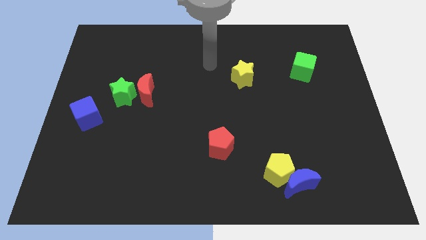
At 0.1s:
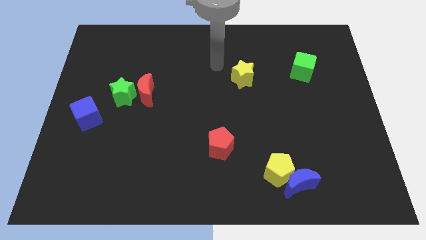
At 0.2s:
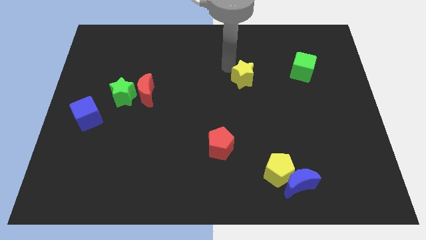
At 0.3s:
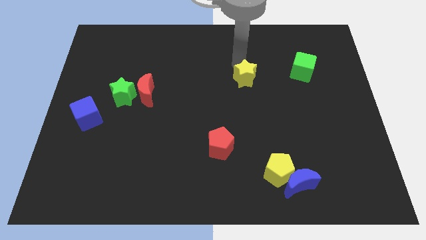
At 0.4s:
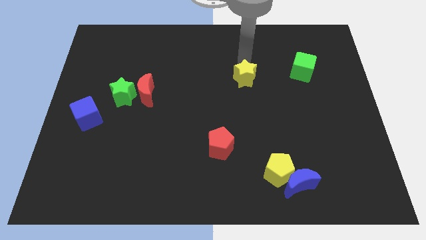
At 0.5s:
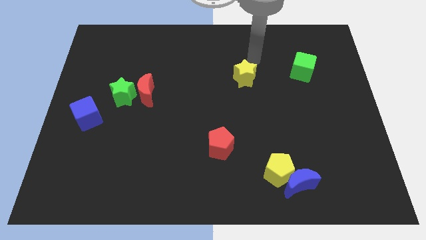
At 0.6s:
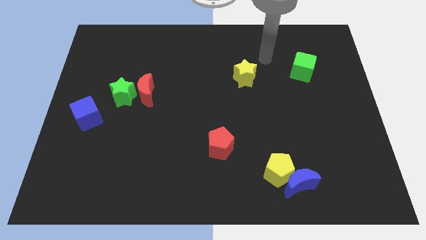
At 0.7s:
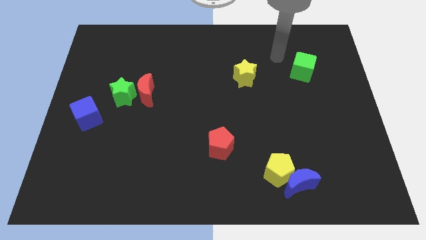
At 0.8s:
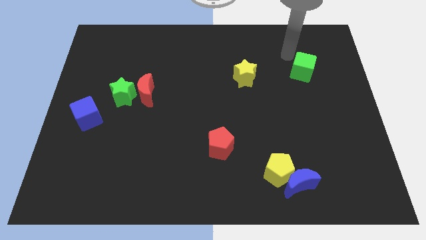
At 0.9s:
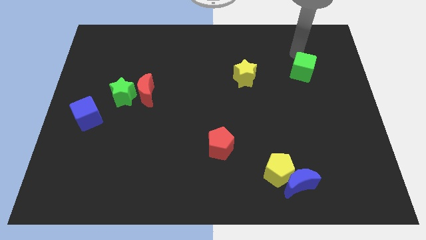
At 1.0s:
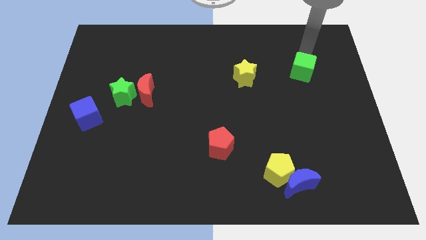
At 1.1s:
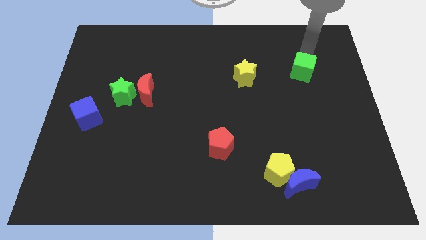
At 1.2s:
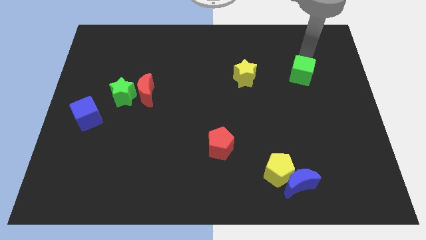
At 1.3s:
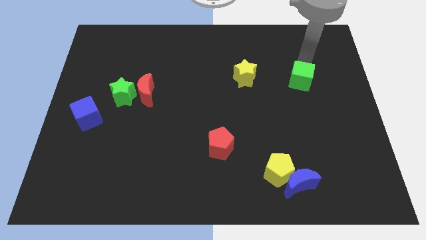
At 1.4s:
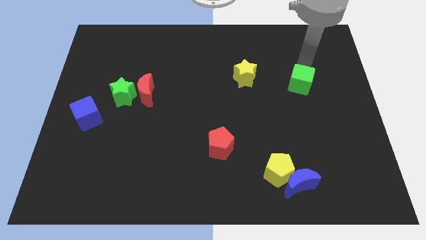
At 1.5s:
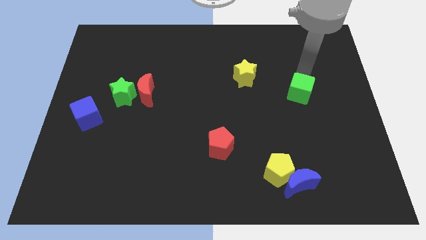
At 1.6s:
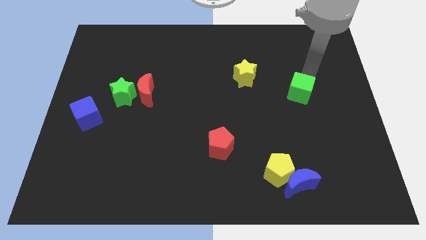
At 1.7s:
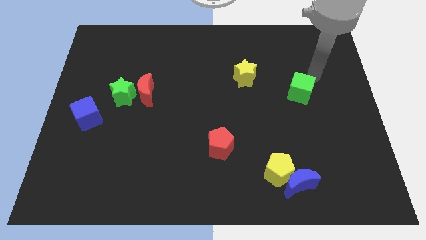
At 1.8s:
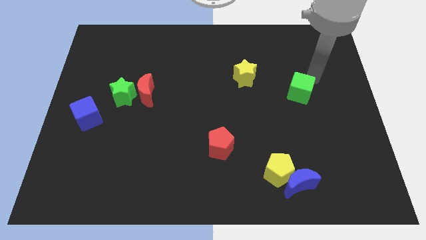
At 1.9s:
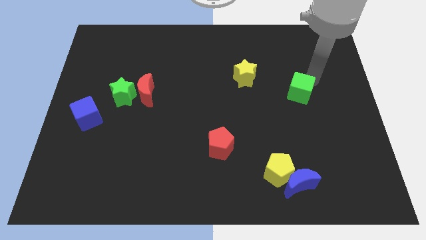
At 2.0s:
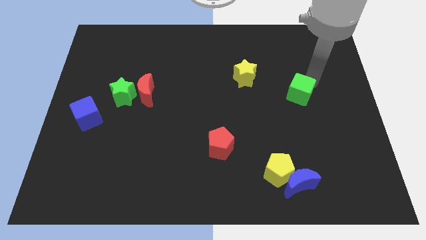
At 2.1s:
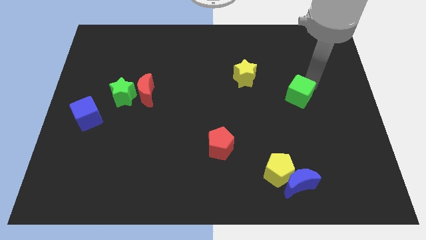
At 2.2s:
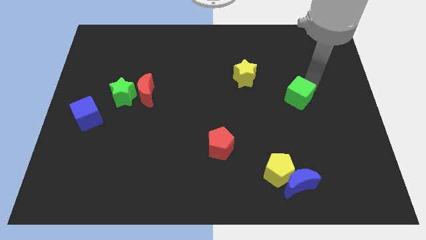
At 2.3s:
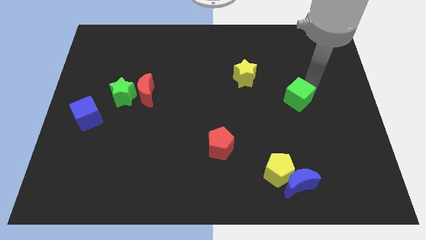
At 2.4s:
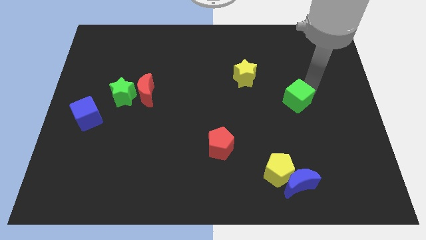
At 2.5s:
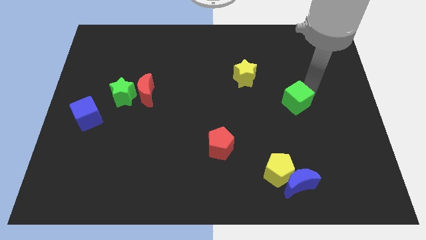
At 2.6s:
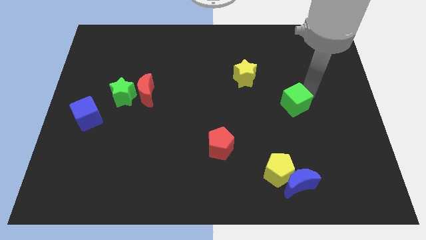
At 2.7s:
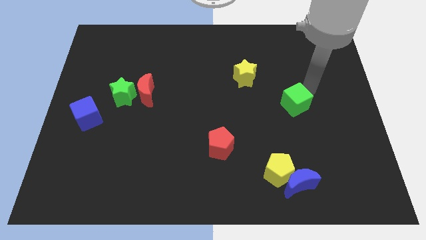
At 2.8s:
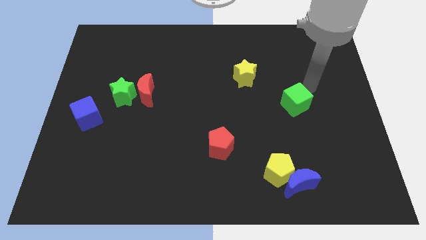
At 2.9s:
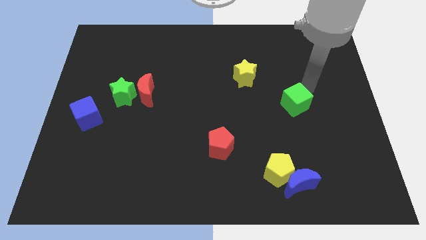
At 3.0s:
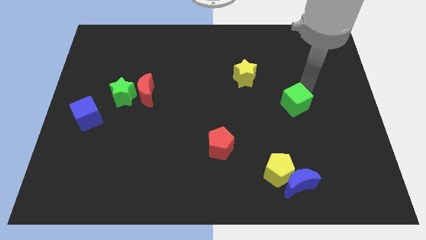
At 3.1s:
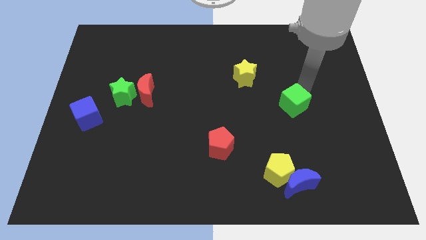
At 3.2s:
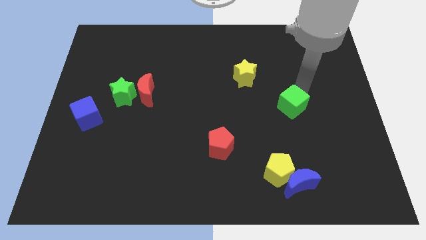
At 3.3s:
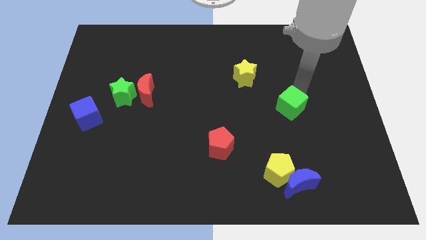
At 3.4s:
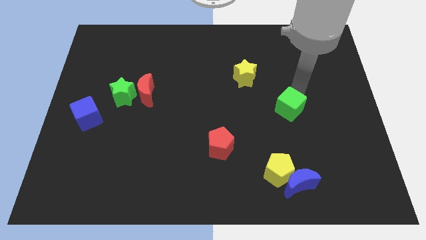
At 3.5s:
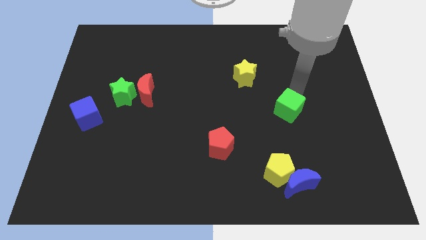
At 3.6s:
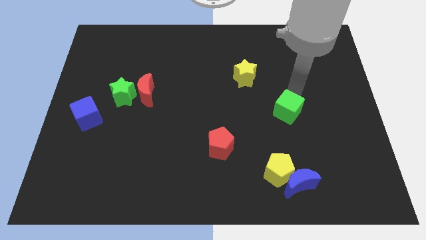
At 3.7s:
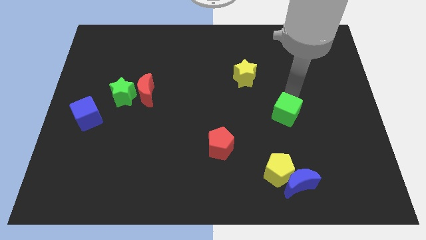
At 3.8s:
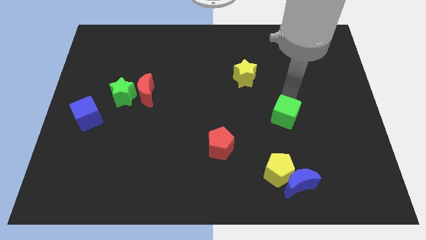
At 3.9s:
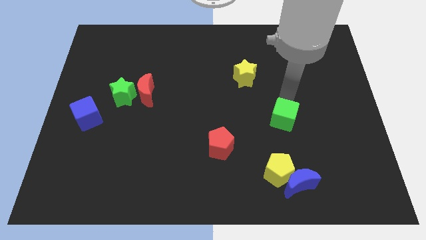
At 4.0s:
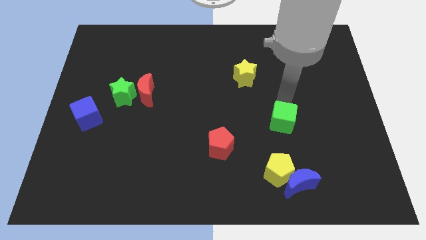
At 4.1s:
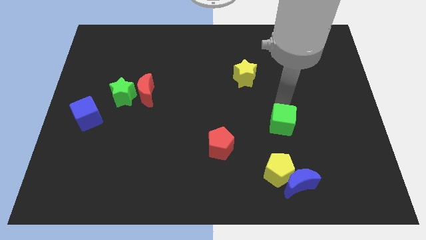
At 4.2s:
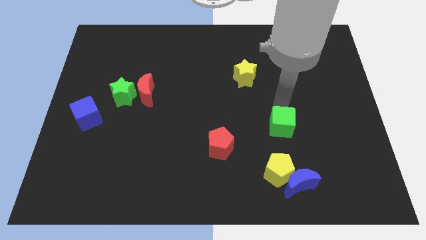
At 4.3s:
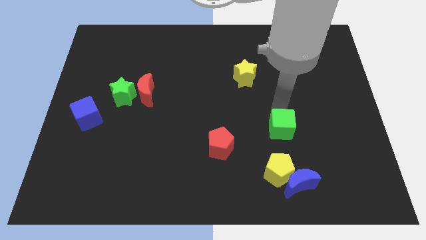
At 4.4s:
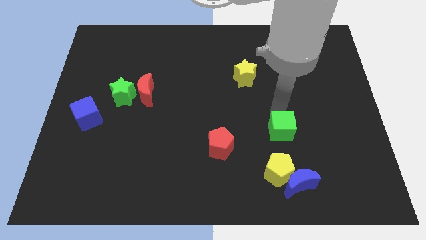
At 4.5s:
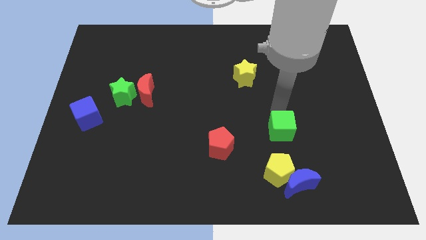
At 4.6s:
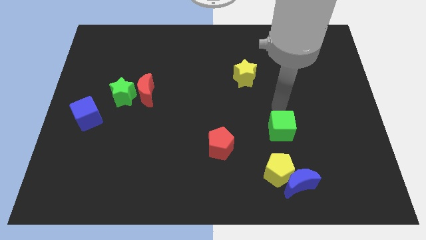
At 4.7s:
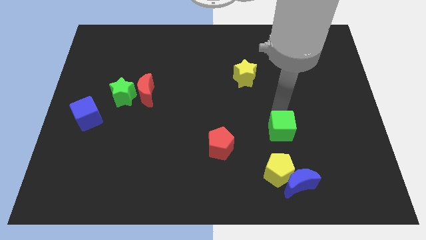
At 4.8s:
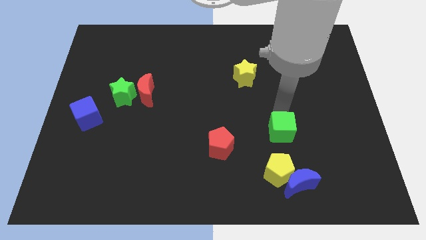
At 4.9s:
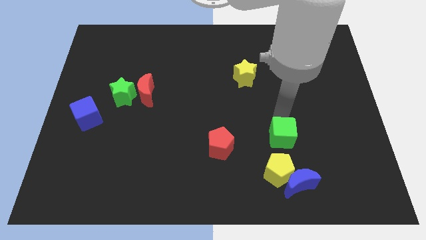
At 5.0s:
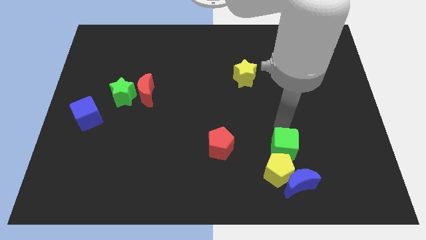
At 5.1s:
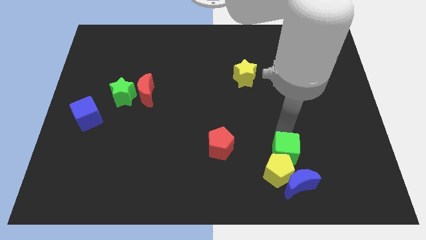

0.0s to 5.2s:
move the green cube to the yellow pentagon

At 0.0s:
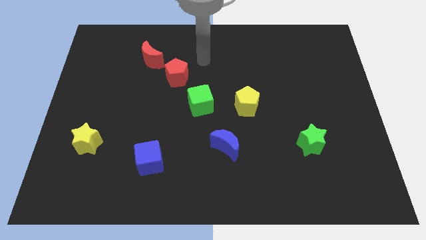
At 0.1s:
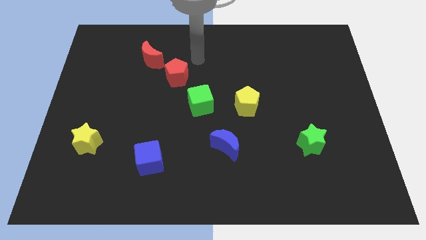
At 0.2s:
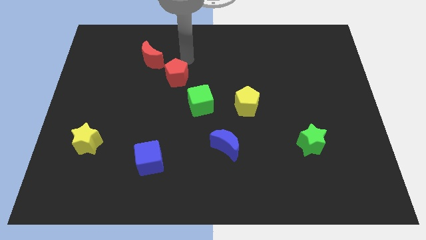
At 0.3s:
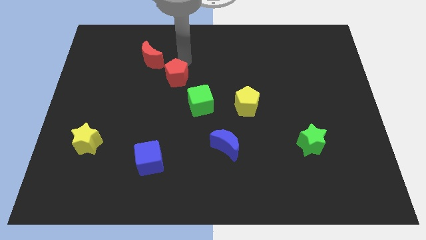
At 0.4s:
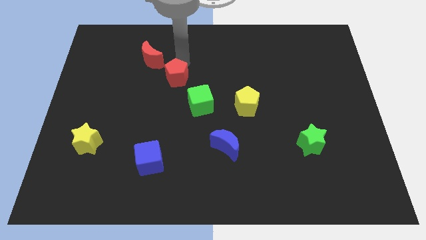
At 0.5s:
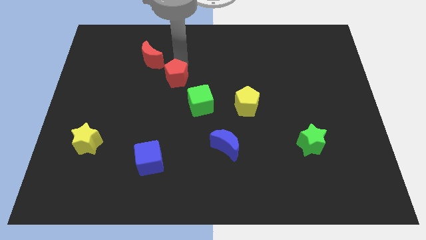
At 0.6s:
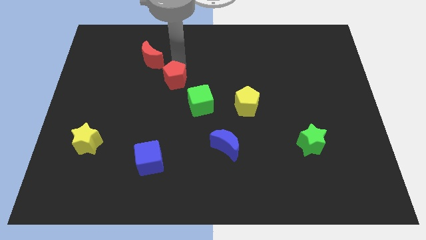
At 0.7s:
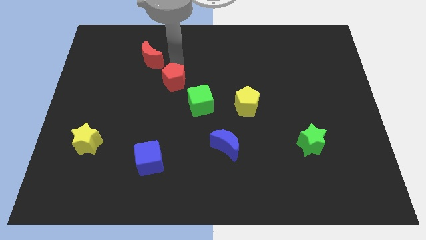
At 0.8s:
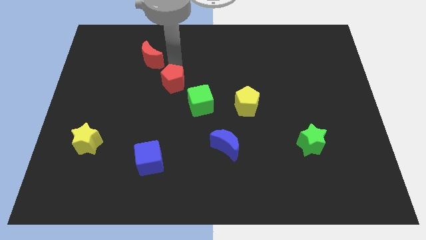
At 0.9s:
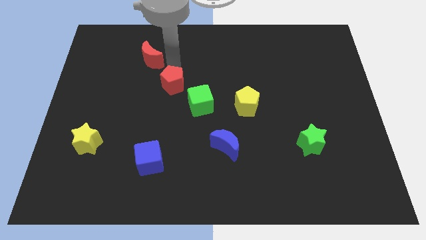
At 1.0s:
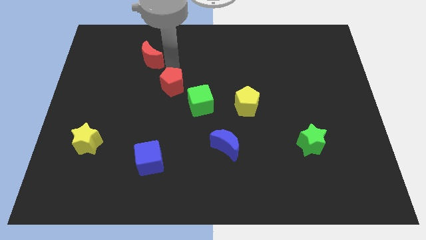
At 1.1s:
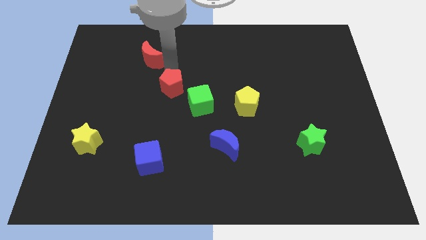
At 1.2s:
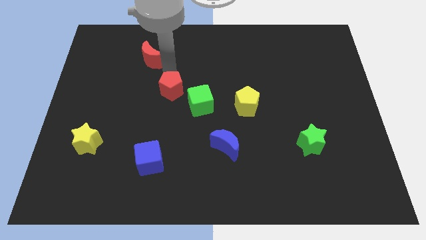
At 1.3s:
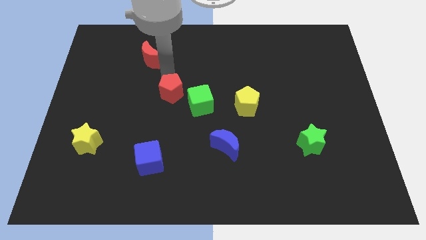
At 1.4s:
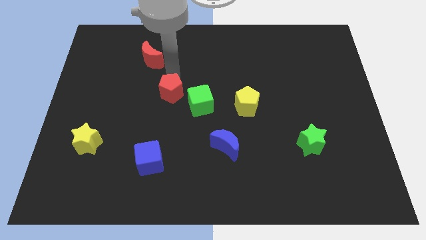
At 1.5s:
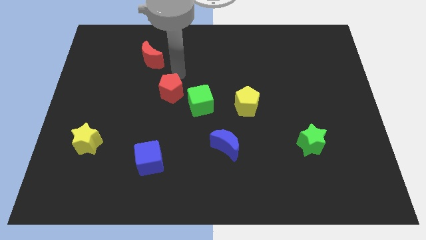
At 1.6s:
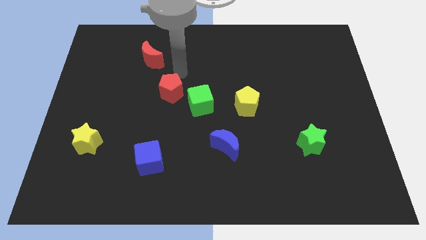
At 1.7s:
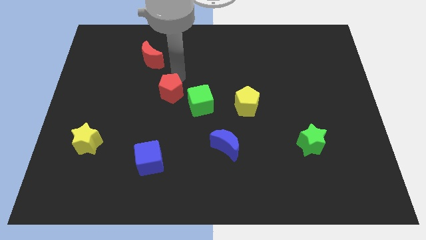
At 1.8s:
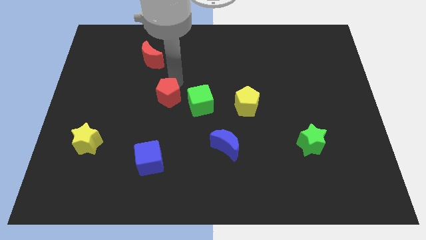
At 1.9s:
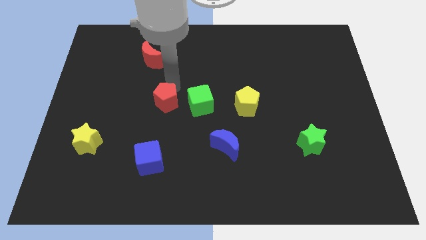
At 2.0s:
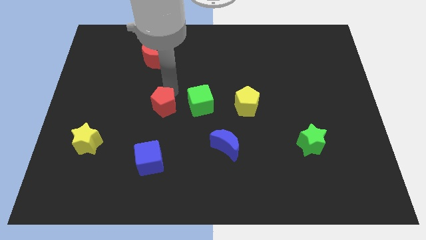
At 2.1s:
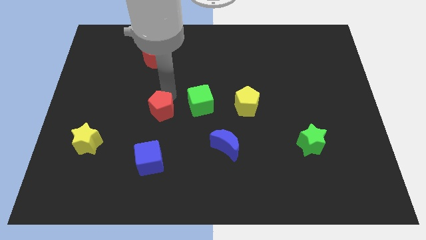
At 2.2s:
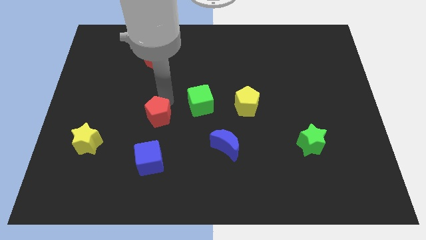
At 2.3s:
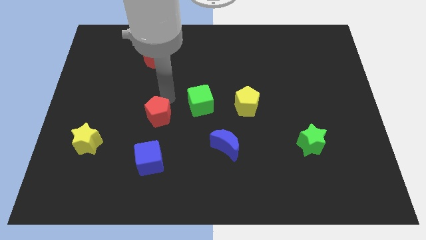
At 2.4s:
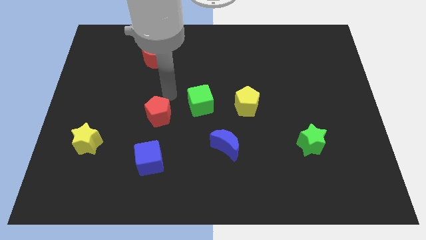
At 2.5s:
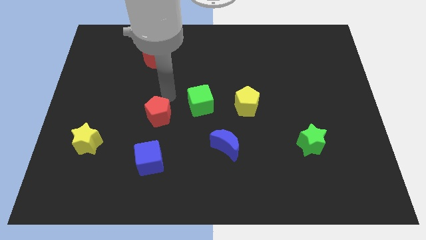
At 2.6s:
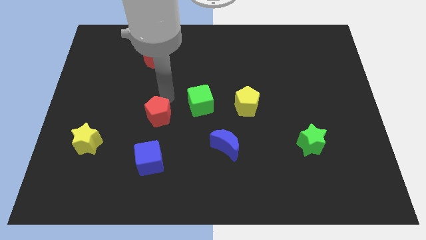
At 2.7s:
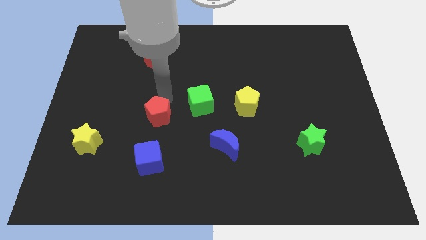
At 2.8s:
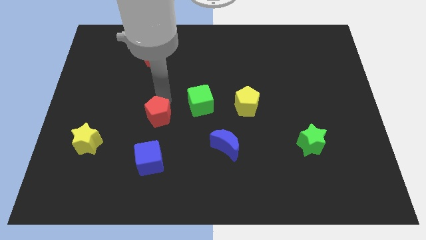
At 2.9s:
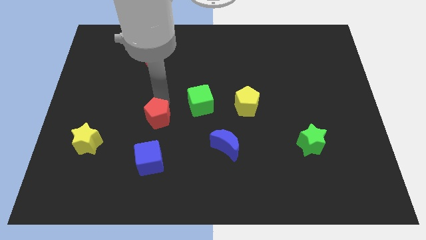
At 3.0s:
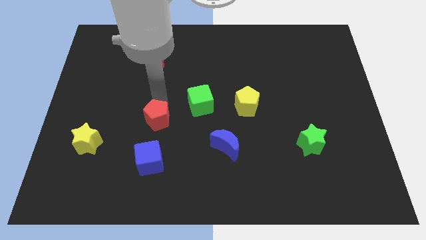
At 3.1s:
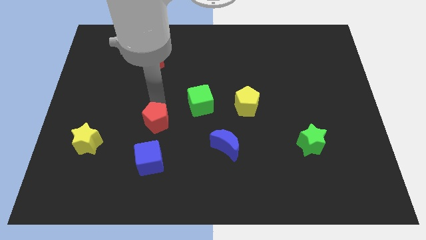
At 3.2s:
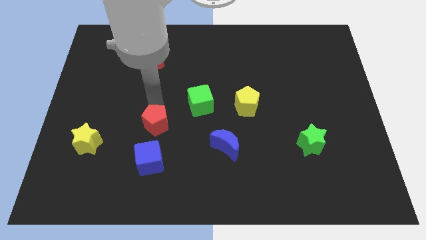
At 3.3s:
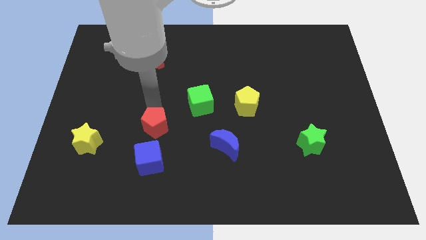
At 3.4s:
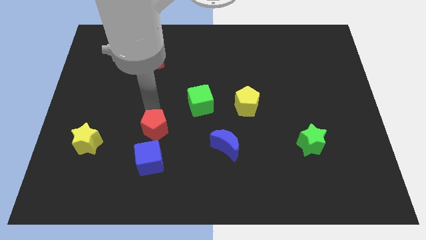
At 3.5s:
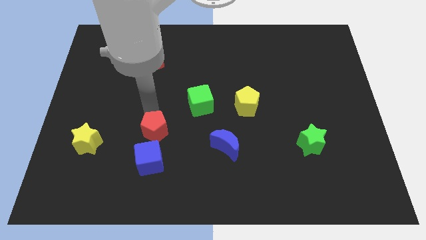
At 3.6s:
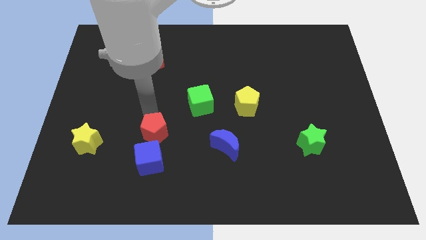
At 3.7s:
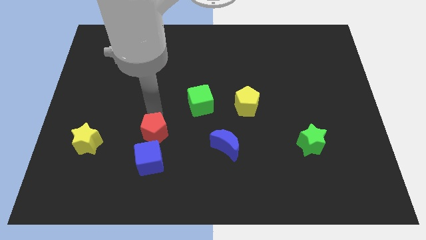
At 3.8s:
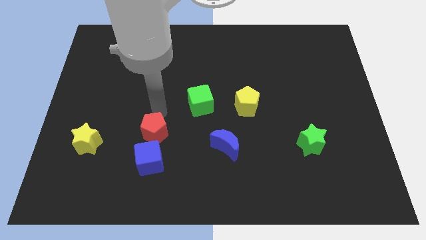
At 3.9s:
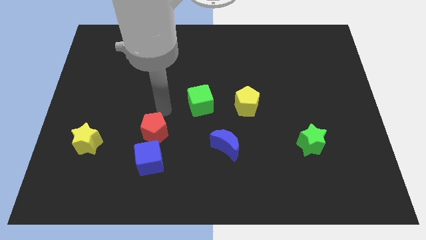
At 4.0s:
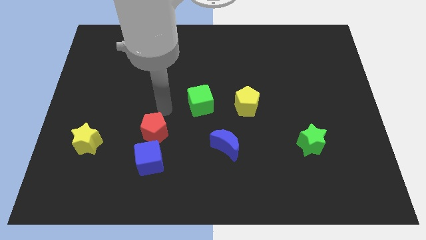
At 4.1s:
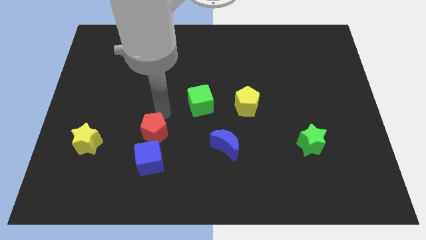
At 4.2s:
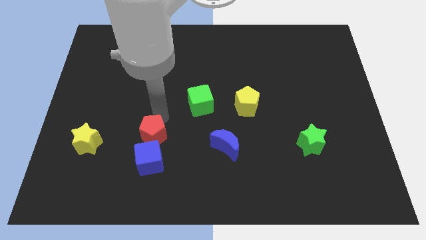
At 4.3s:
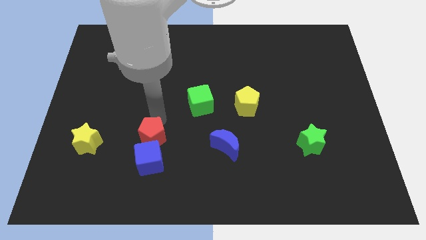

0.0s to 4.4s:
push the red pentagon to the blue cube
